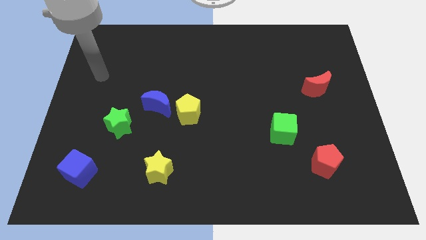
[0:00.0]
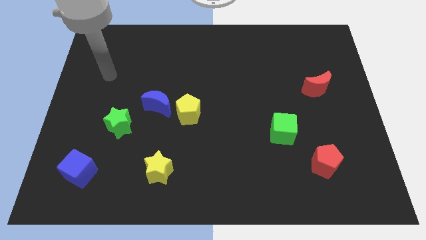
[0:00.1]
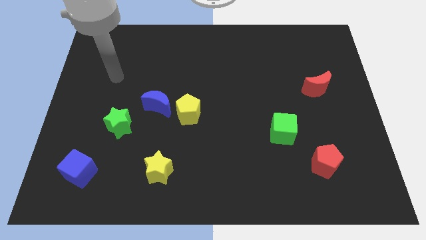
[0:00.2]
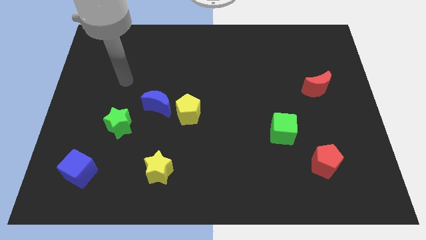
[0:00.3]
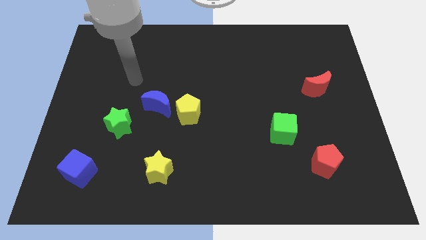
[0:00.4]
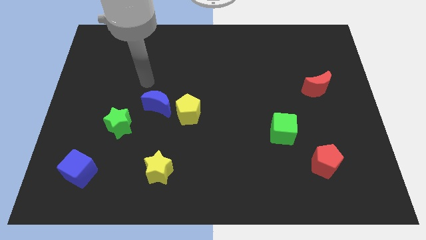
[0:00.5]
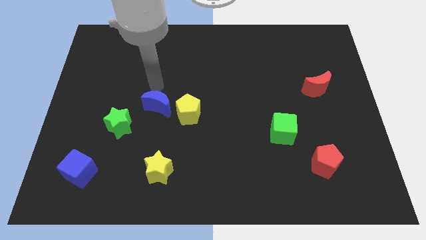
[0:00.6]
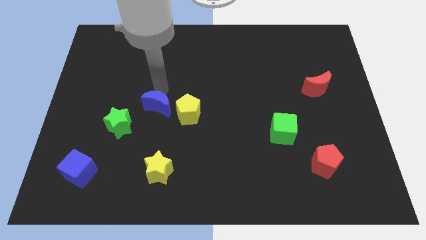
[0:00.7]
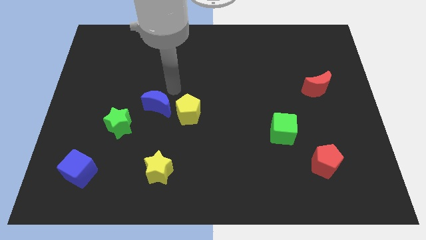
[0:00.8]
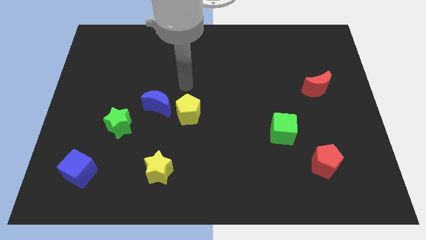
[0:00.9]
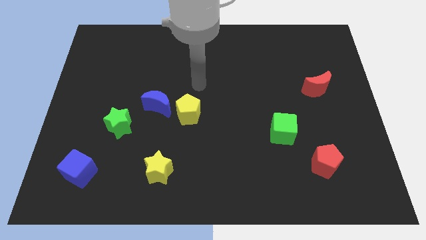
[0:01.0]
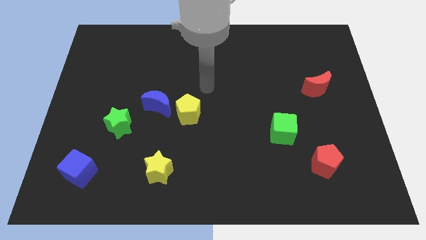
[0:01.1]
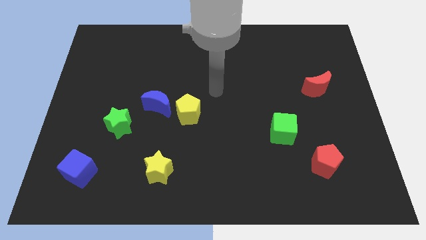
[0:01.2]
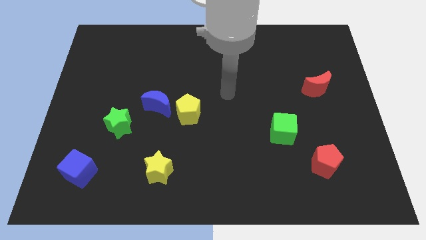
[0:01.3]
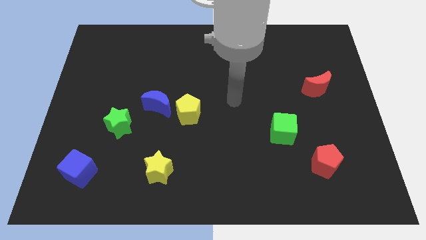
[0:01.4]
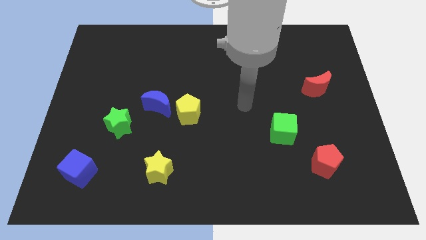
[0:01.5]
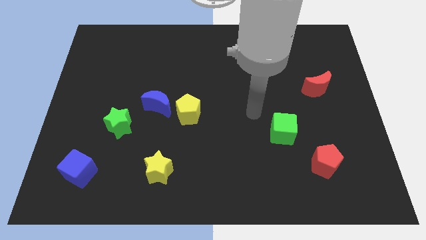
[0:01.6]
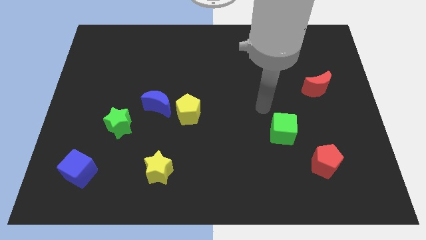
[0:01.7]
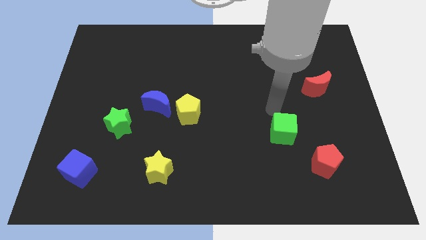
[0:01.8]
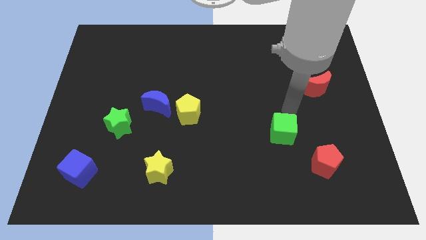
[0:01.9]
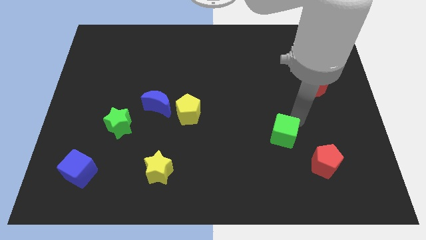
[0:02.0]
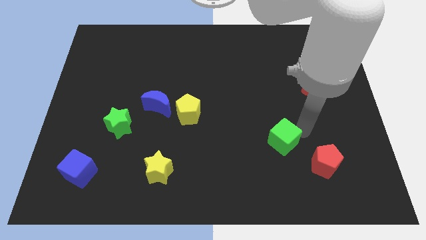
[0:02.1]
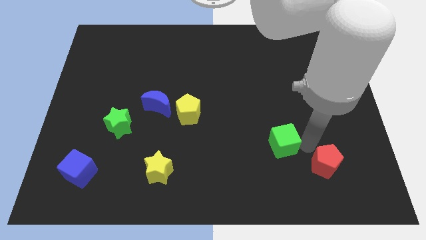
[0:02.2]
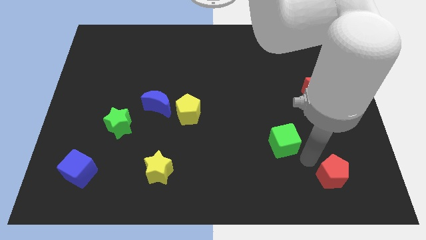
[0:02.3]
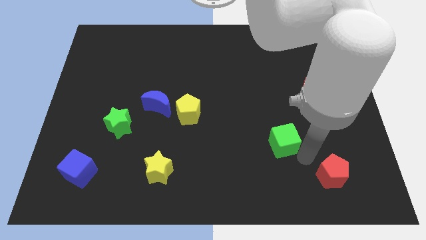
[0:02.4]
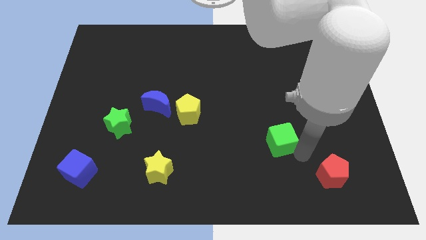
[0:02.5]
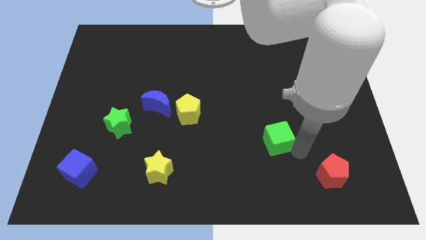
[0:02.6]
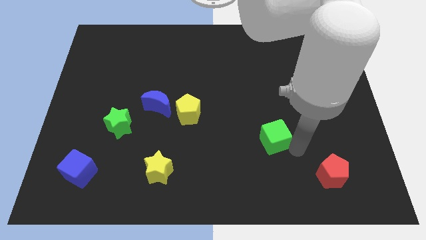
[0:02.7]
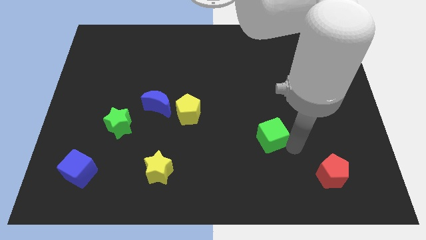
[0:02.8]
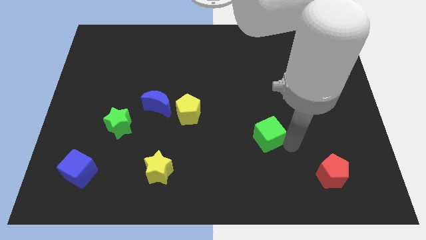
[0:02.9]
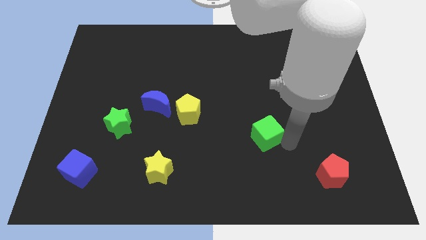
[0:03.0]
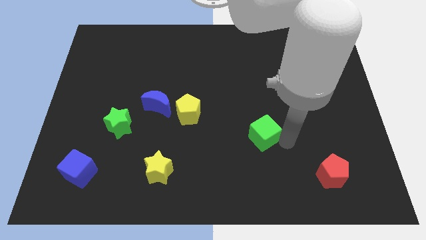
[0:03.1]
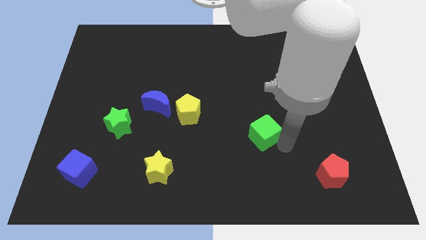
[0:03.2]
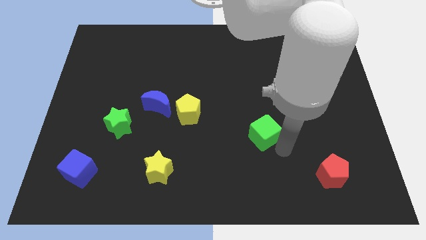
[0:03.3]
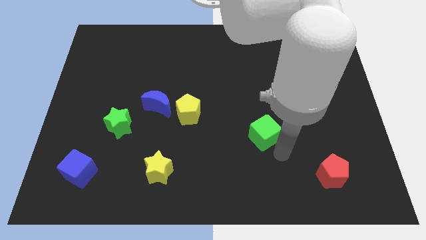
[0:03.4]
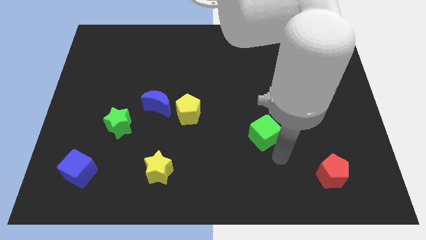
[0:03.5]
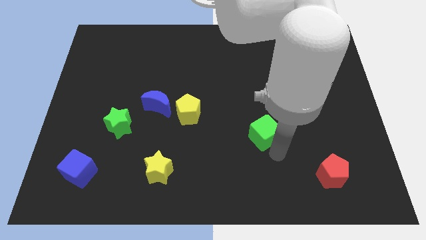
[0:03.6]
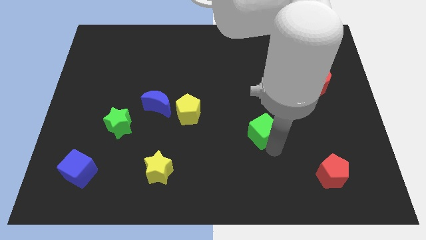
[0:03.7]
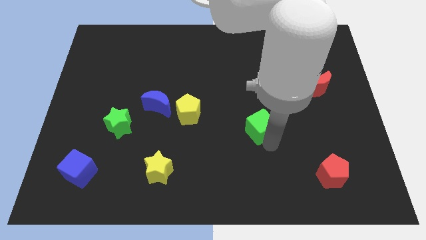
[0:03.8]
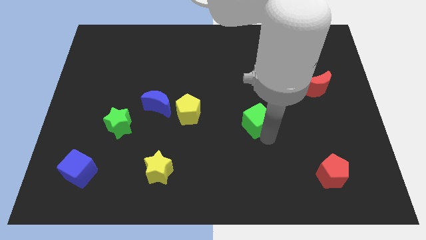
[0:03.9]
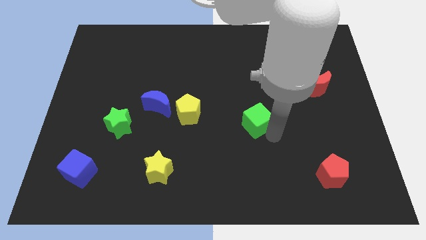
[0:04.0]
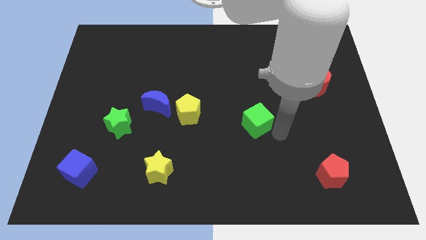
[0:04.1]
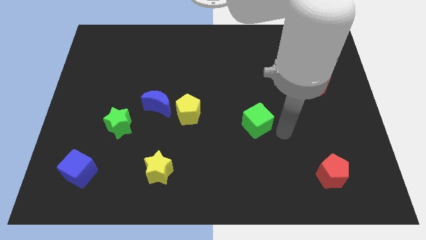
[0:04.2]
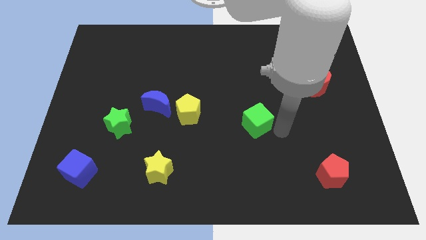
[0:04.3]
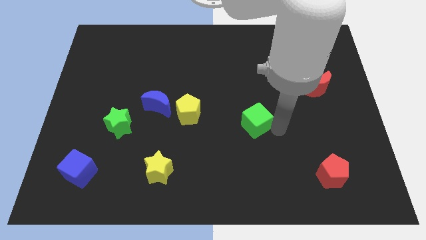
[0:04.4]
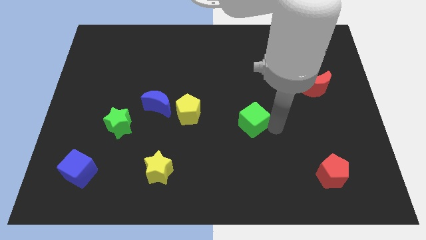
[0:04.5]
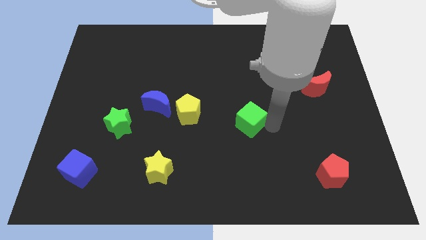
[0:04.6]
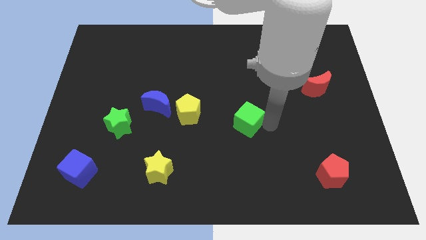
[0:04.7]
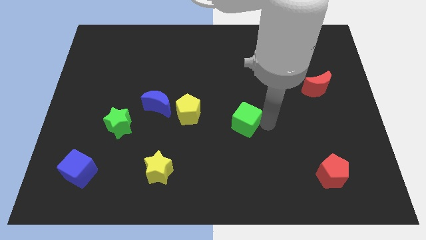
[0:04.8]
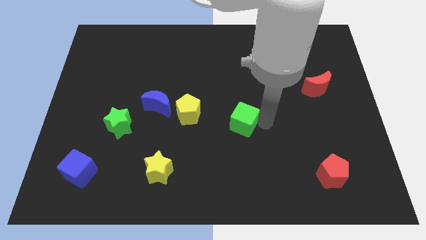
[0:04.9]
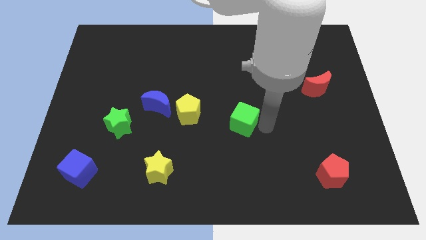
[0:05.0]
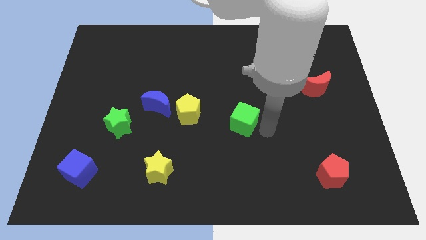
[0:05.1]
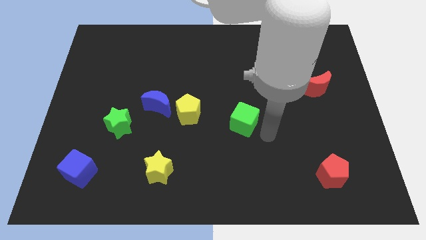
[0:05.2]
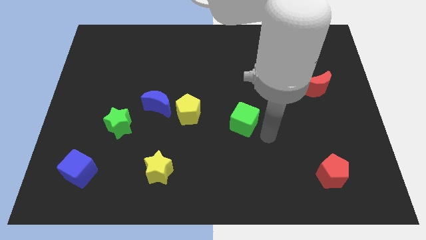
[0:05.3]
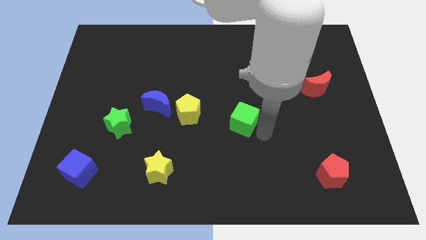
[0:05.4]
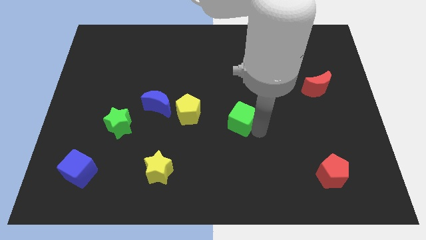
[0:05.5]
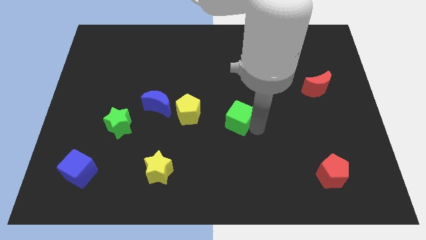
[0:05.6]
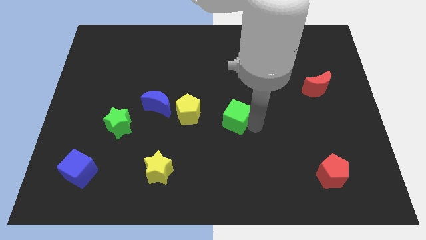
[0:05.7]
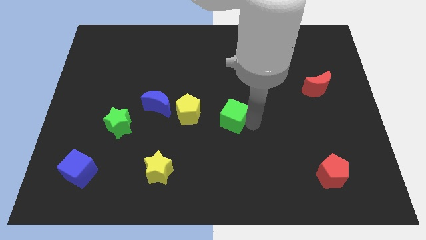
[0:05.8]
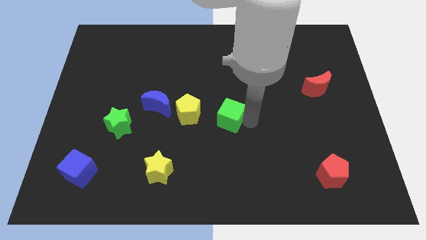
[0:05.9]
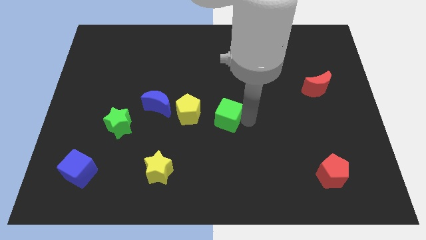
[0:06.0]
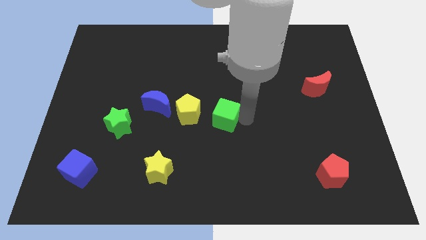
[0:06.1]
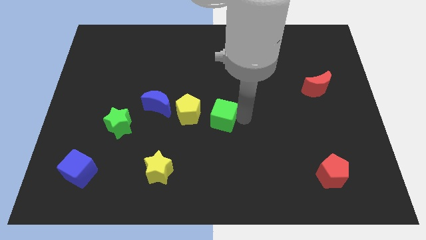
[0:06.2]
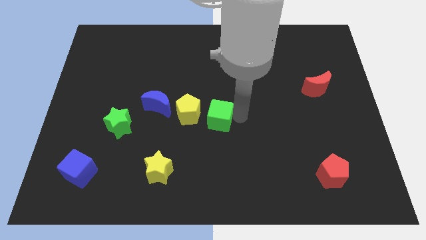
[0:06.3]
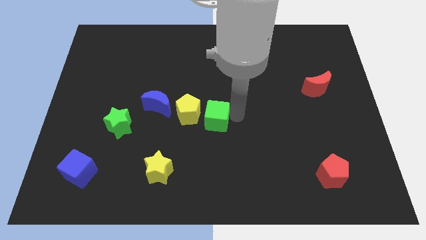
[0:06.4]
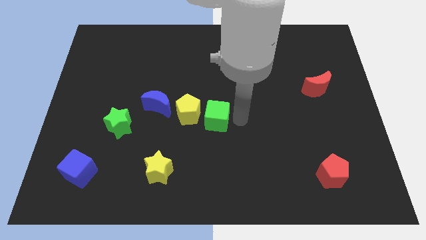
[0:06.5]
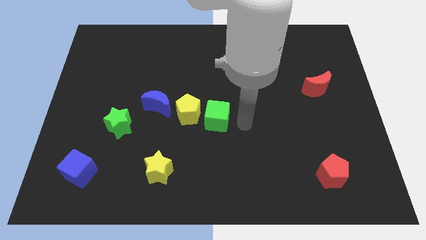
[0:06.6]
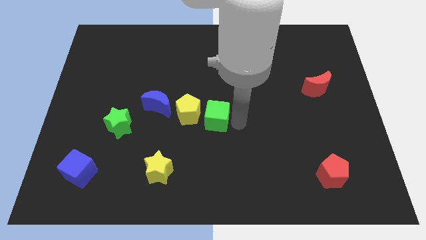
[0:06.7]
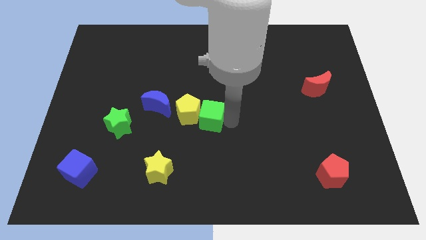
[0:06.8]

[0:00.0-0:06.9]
slide the green cube next to the yellow pentagon

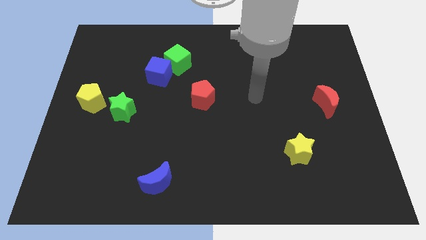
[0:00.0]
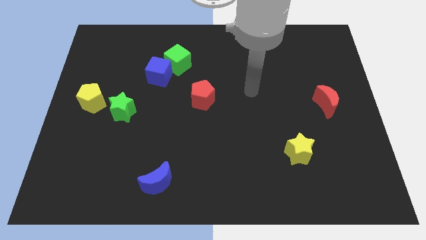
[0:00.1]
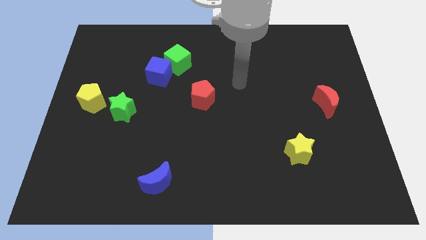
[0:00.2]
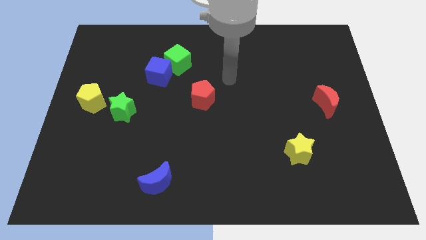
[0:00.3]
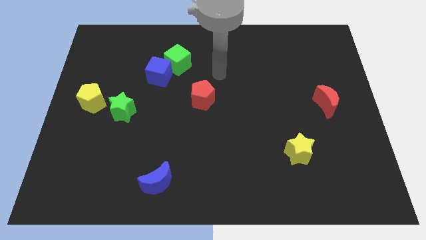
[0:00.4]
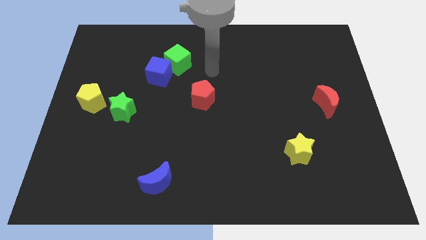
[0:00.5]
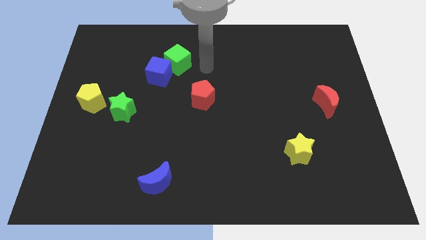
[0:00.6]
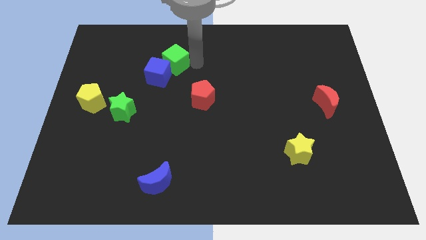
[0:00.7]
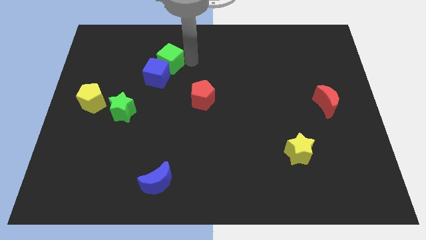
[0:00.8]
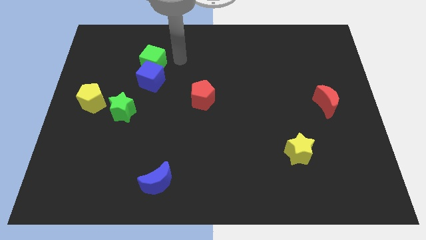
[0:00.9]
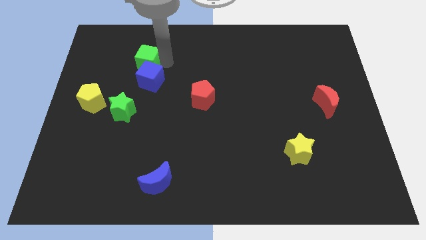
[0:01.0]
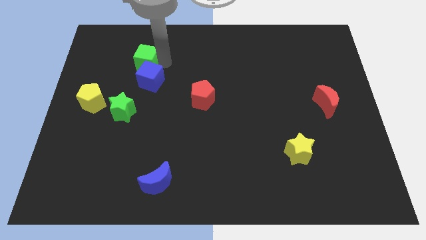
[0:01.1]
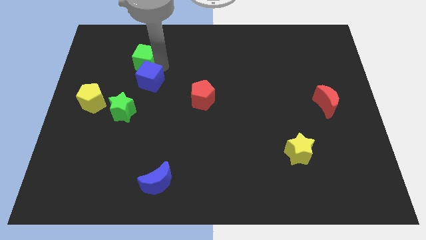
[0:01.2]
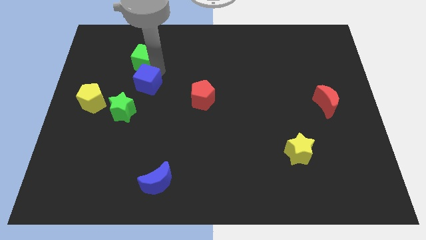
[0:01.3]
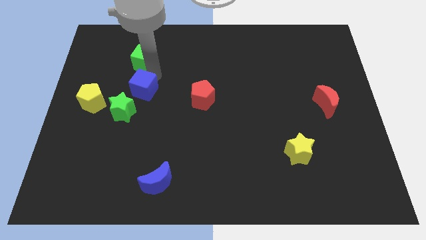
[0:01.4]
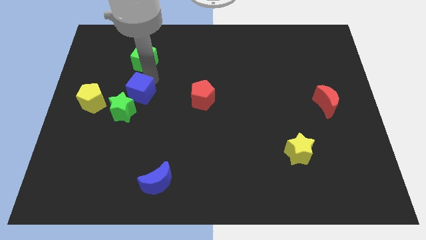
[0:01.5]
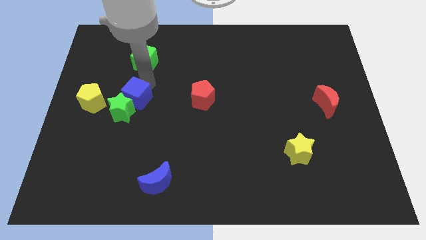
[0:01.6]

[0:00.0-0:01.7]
put the blue cube next to the green star
